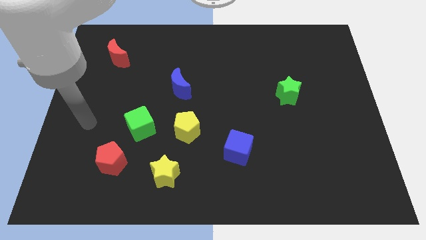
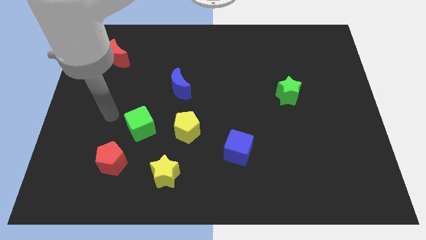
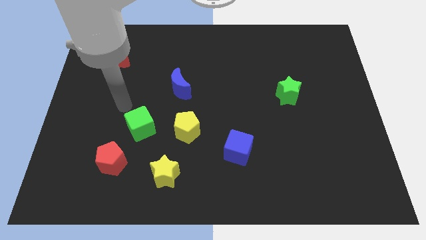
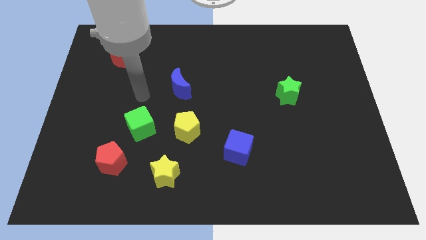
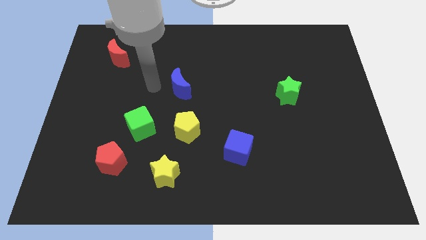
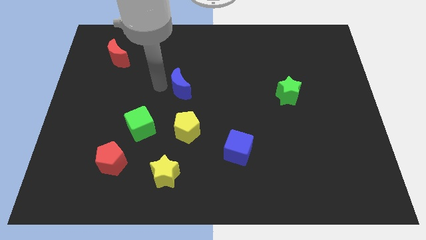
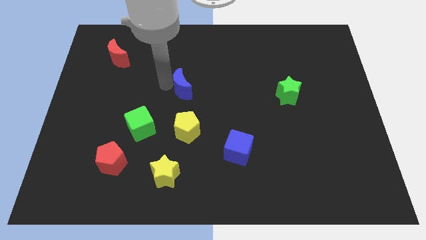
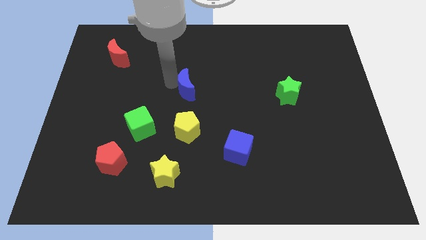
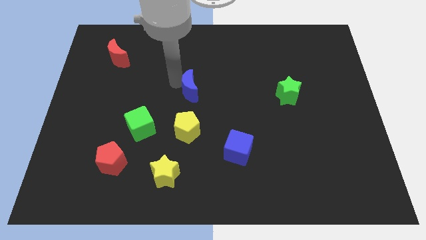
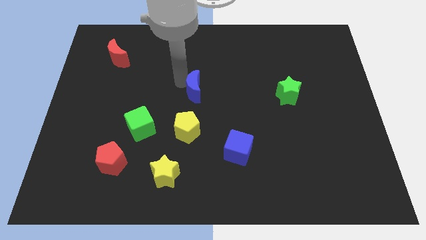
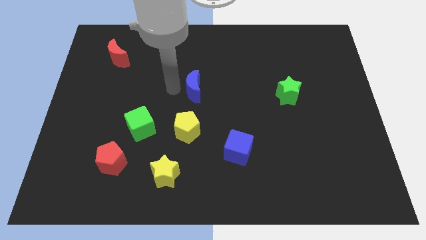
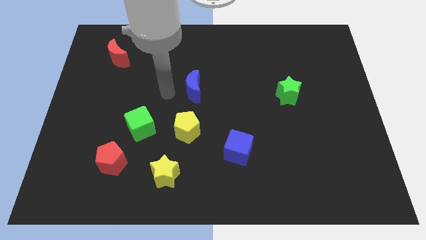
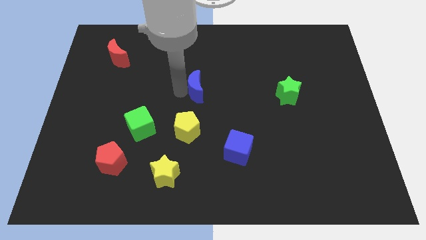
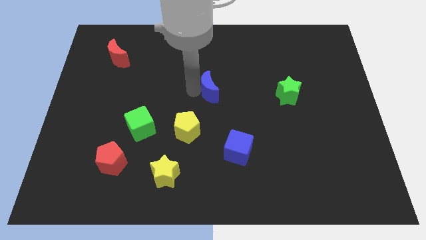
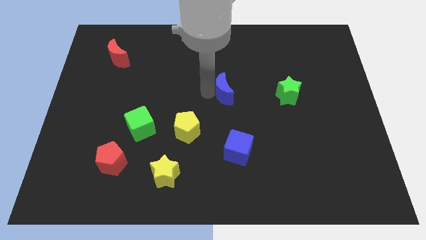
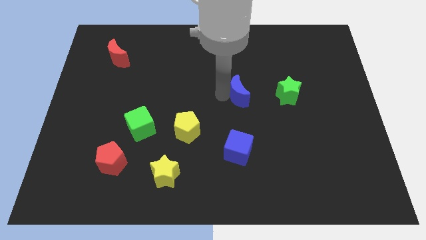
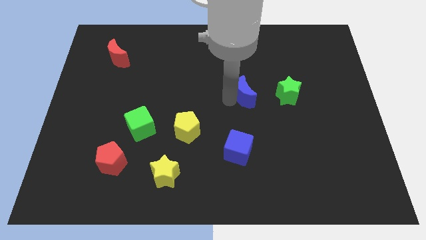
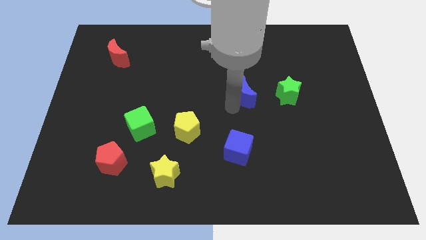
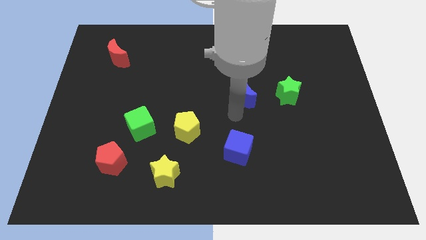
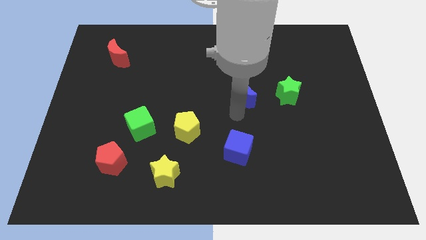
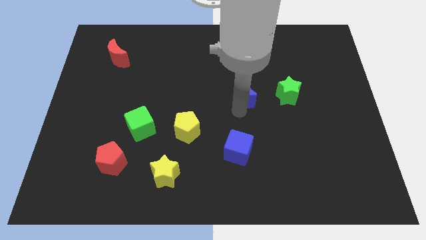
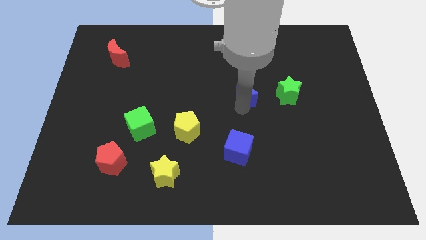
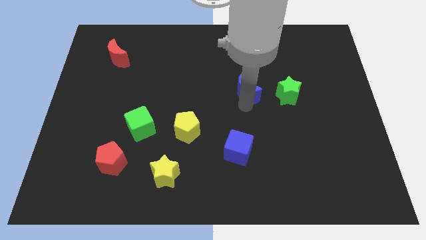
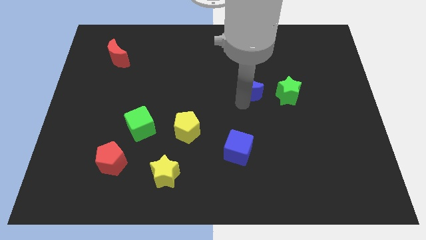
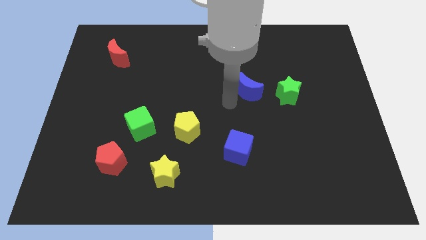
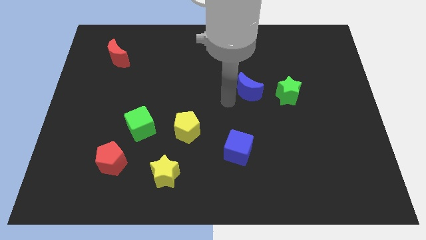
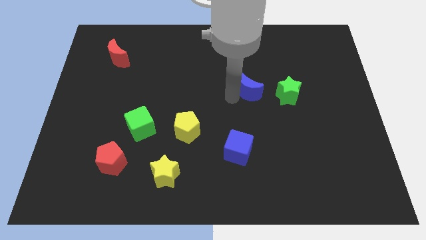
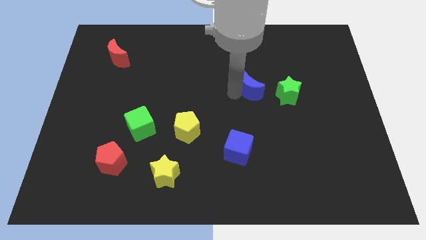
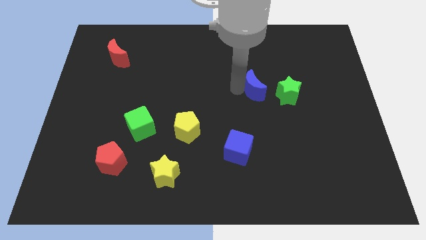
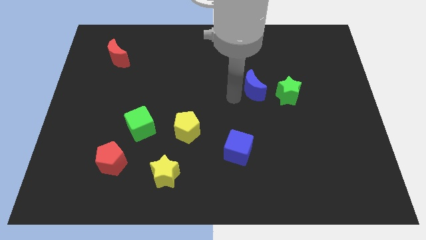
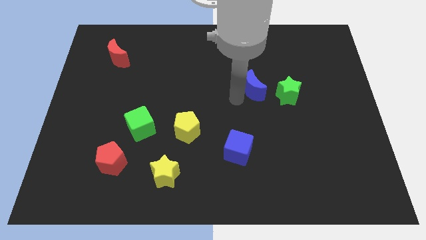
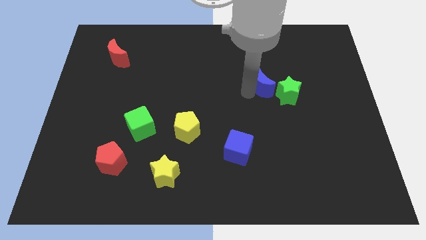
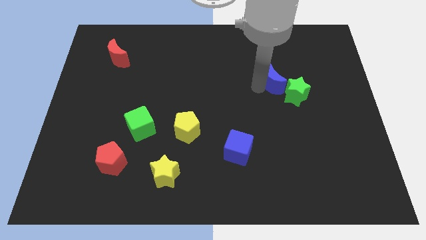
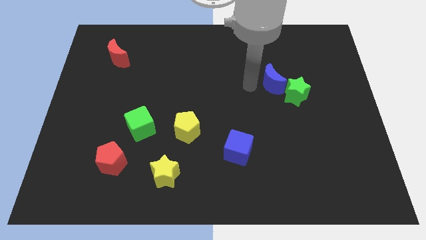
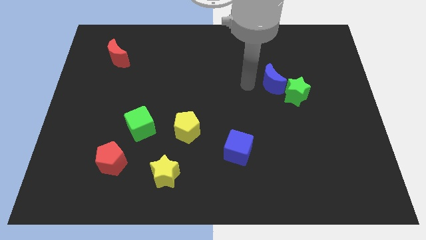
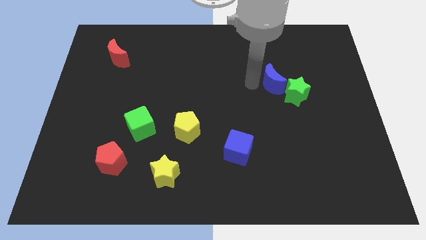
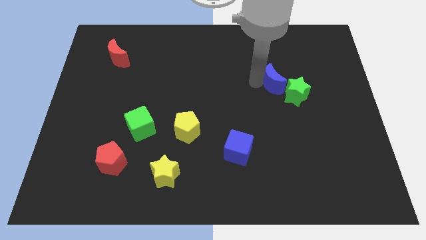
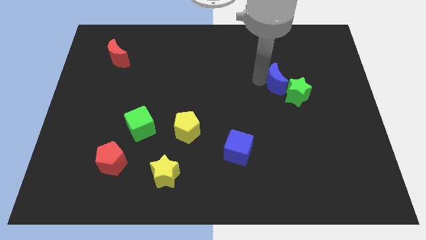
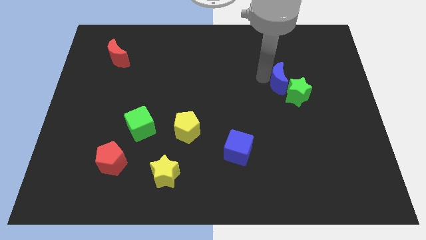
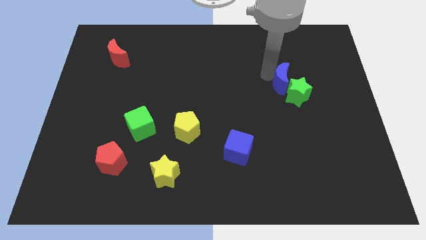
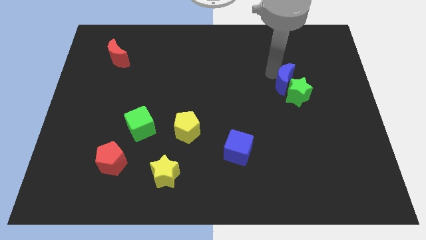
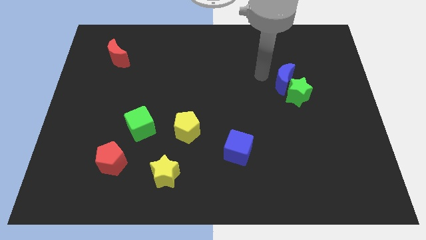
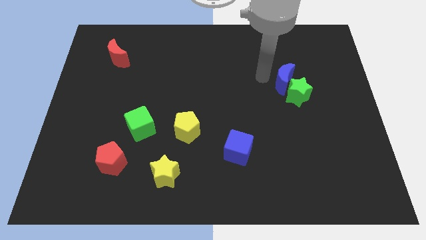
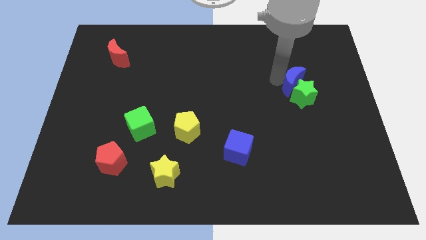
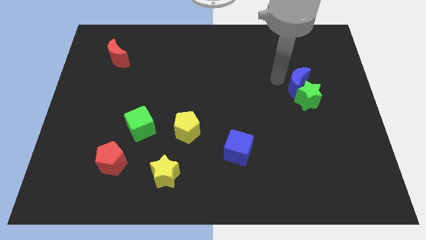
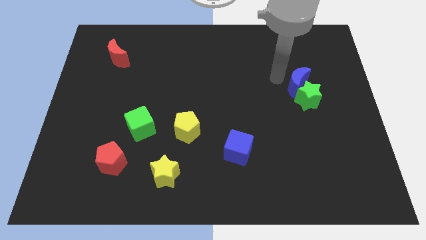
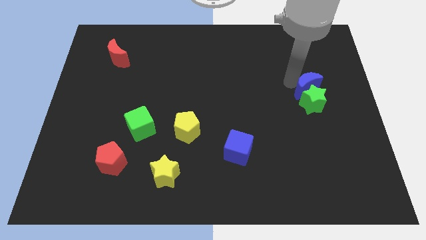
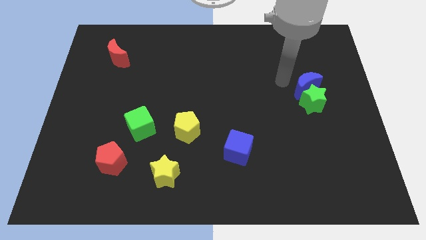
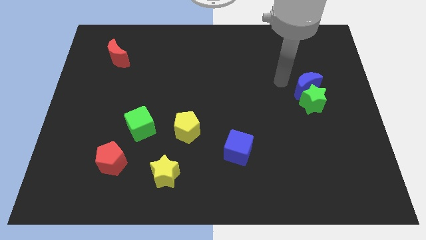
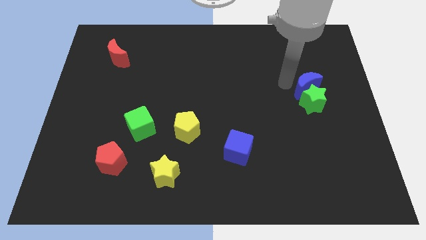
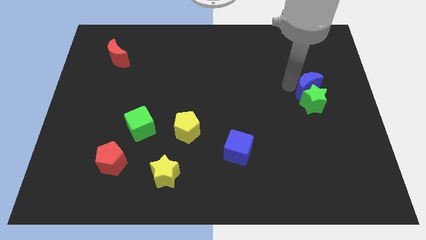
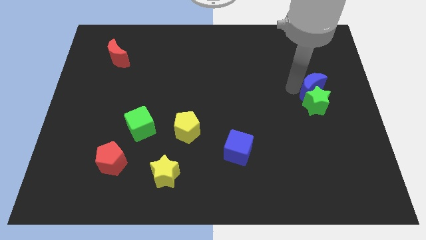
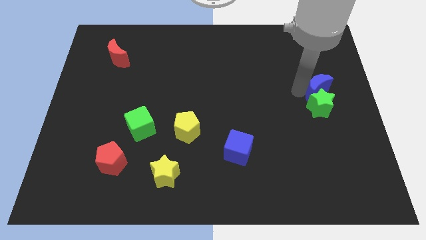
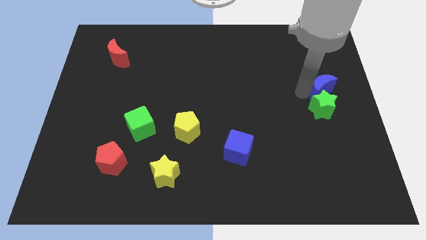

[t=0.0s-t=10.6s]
push the blue moon to the right side
